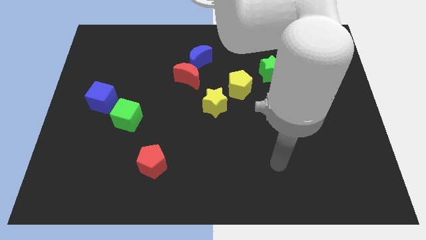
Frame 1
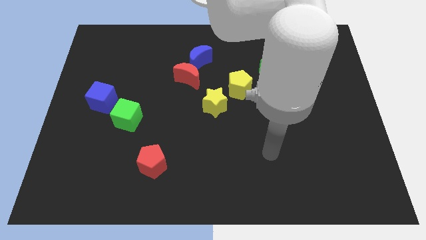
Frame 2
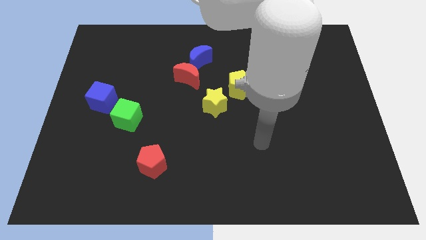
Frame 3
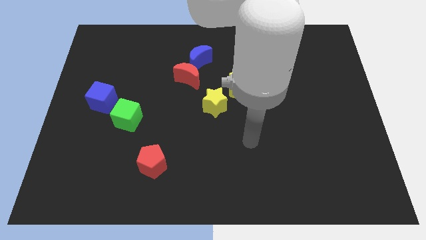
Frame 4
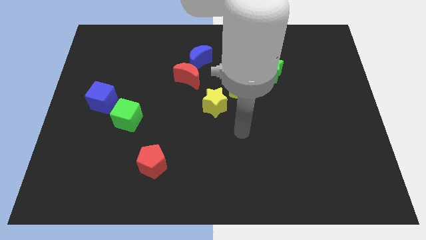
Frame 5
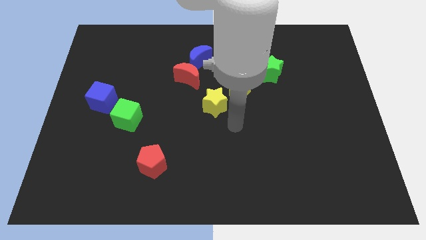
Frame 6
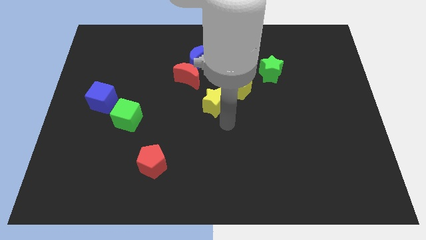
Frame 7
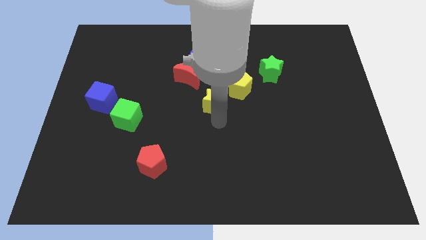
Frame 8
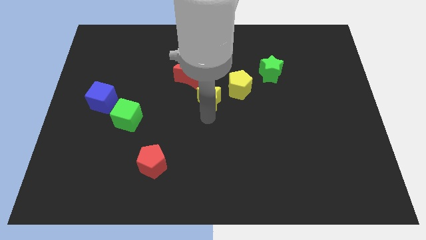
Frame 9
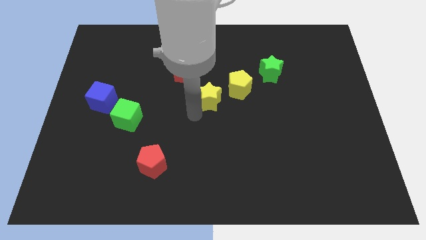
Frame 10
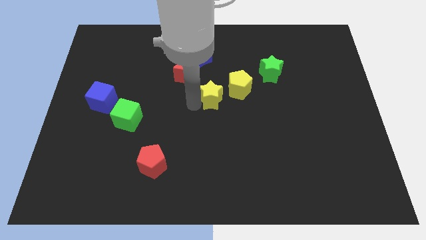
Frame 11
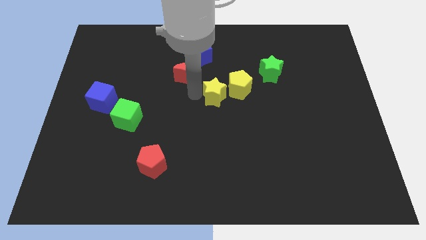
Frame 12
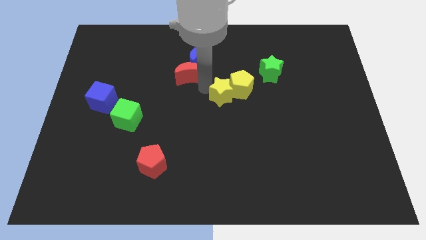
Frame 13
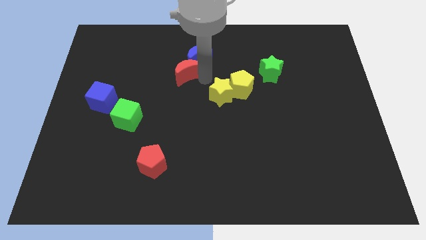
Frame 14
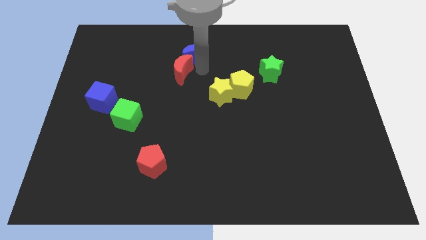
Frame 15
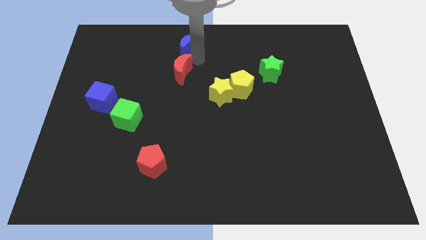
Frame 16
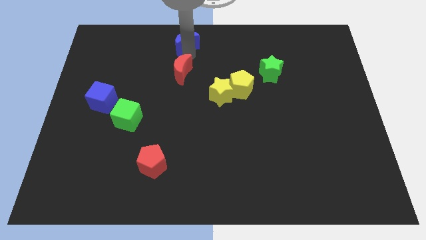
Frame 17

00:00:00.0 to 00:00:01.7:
move the red moon away from the blue moon

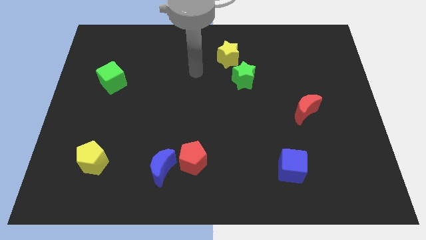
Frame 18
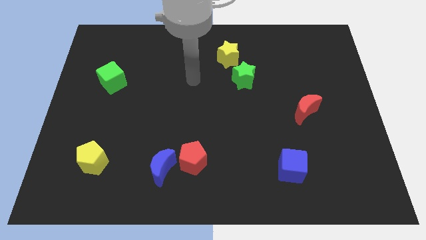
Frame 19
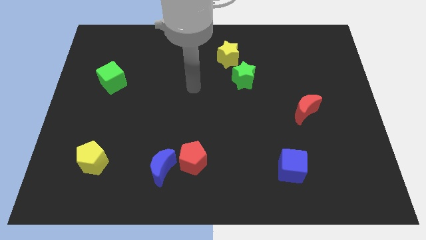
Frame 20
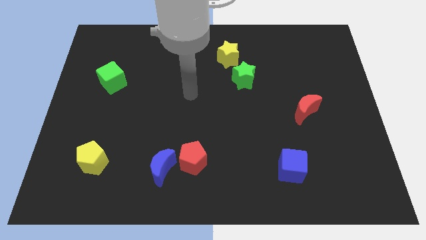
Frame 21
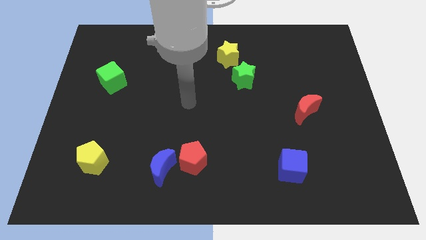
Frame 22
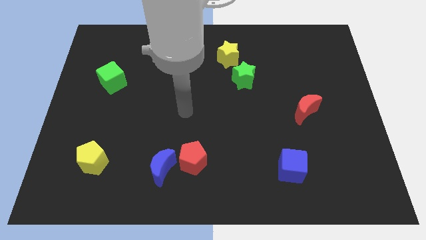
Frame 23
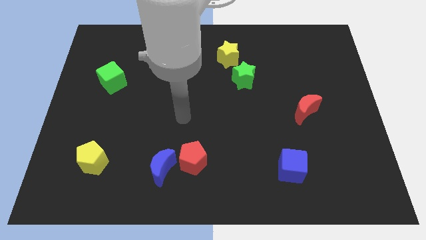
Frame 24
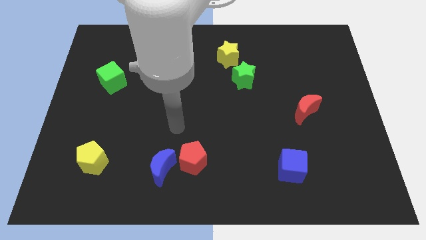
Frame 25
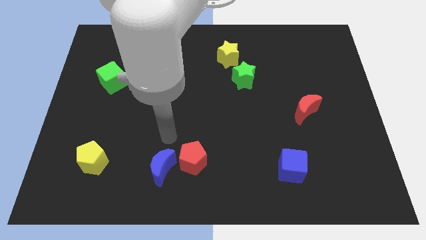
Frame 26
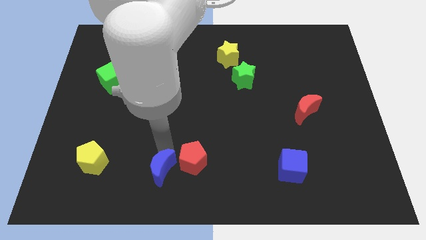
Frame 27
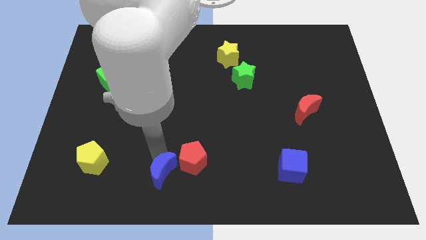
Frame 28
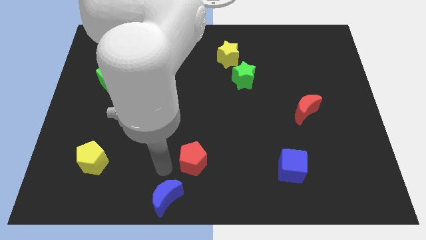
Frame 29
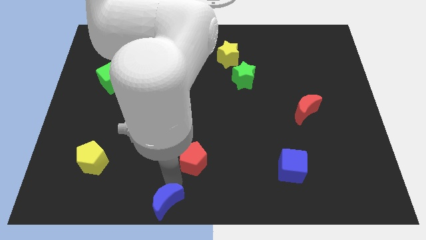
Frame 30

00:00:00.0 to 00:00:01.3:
pull the red pentagon apart from the blue moon

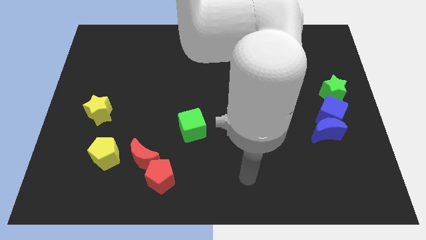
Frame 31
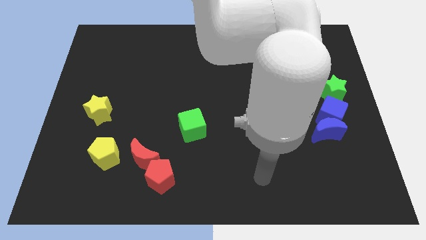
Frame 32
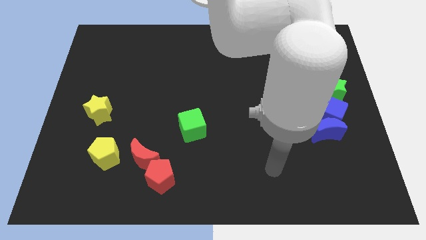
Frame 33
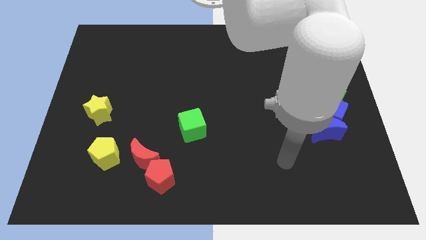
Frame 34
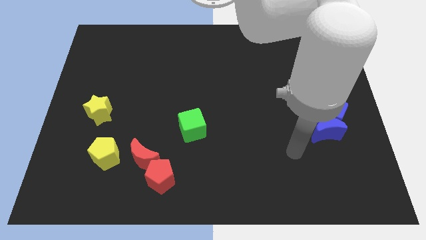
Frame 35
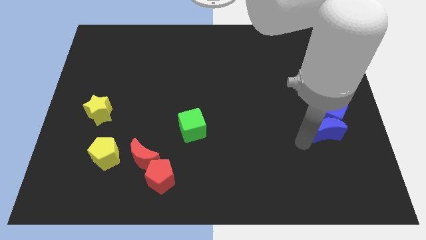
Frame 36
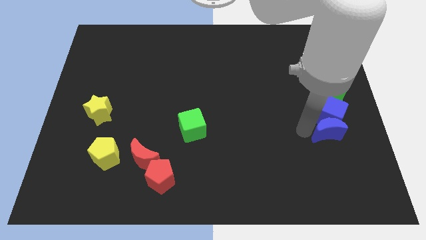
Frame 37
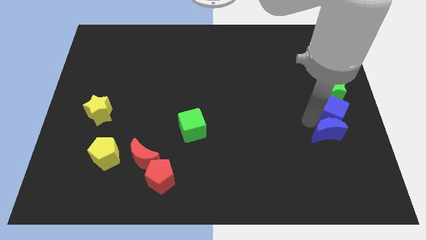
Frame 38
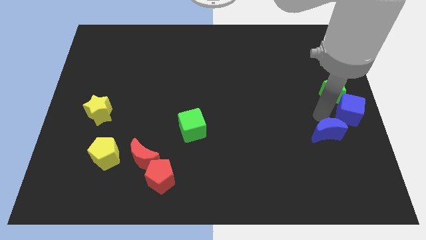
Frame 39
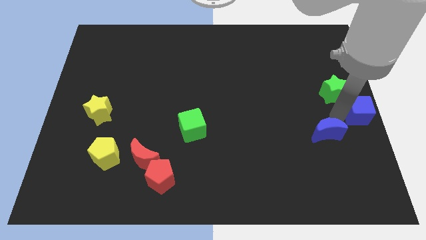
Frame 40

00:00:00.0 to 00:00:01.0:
separate the blue moon from the blue cube

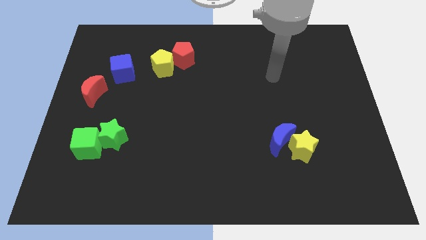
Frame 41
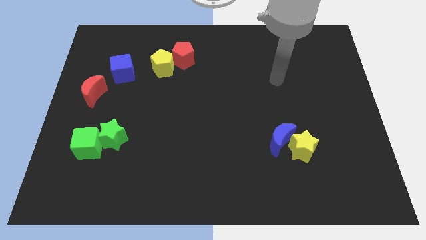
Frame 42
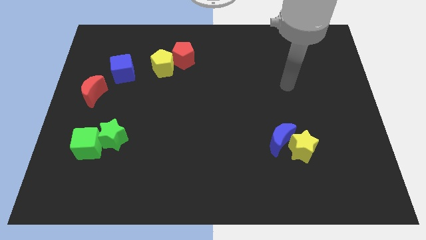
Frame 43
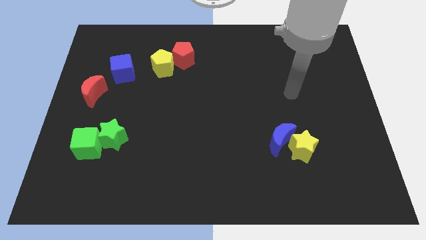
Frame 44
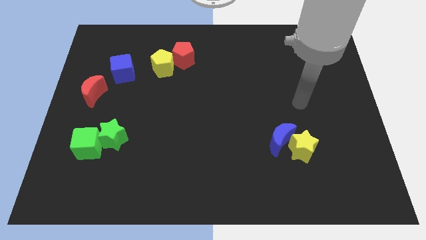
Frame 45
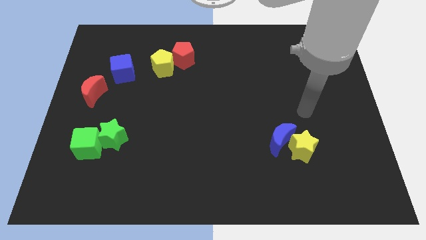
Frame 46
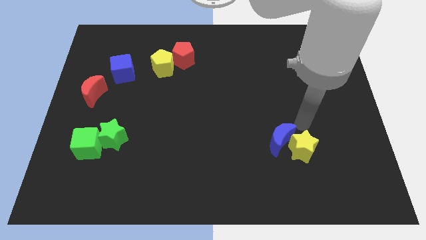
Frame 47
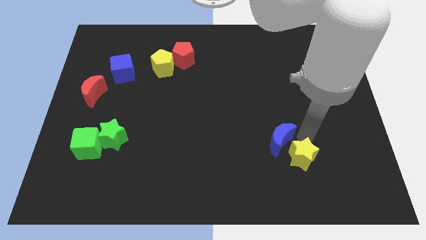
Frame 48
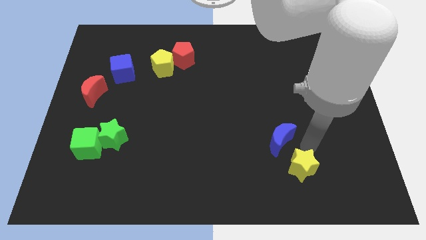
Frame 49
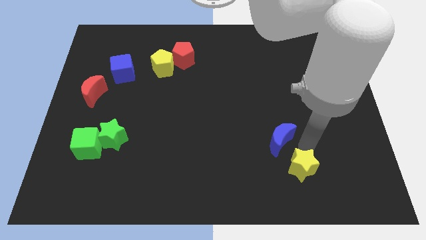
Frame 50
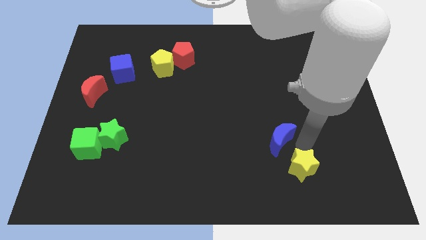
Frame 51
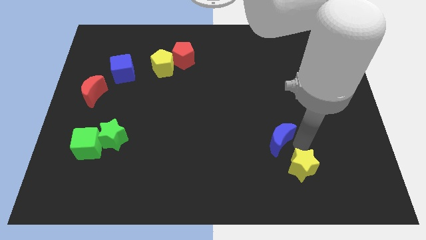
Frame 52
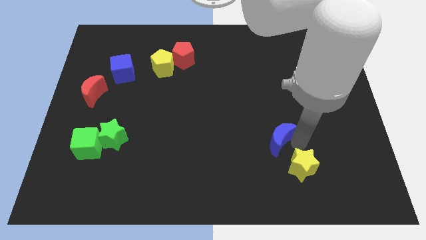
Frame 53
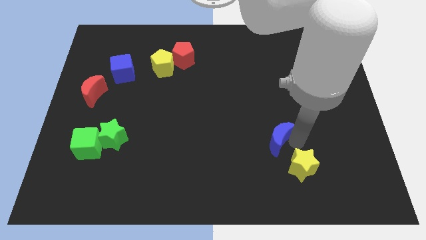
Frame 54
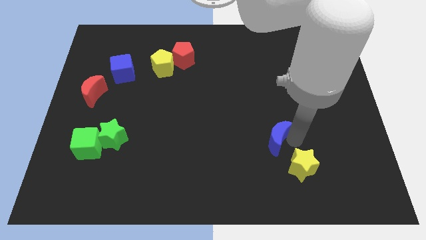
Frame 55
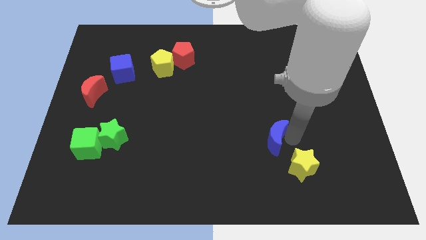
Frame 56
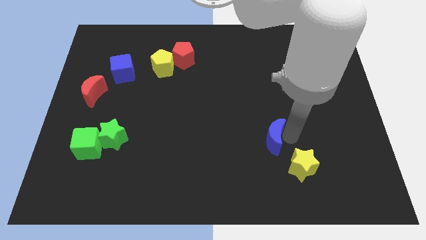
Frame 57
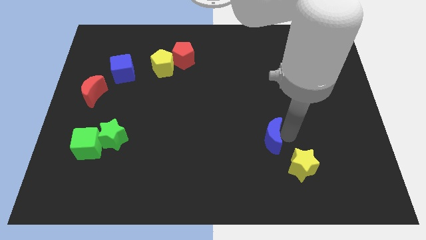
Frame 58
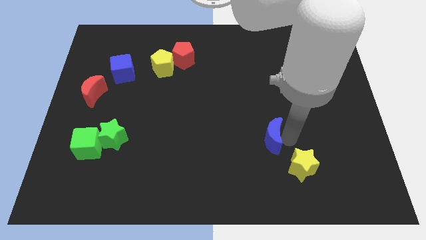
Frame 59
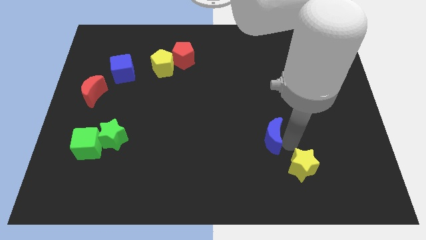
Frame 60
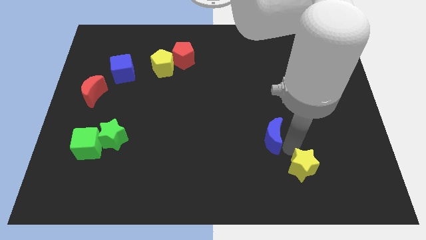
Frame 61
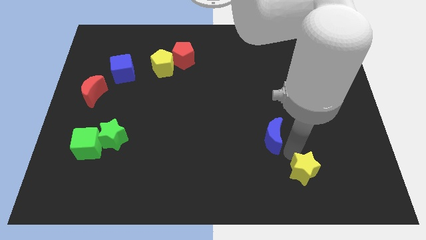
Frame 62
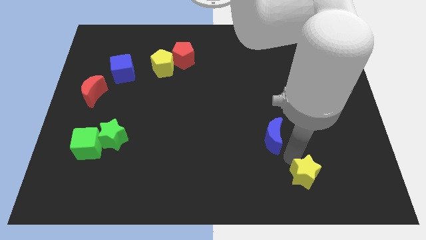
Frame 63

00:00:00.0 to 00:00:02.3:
move the blue moon away from the yellow star

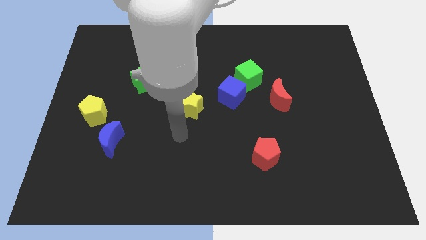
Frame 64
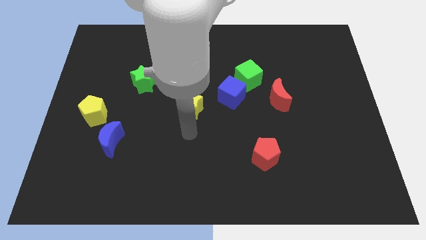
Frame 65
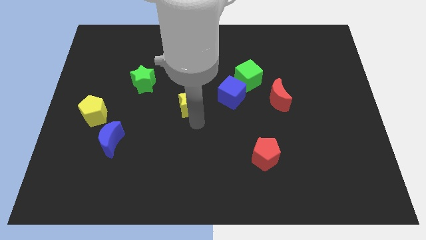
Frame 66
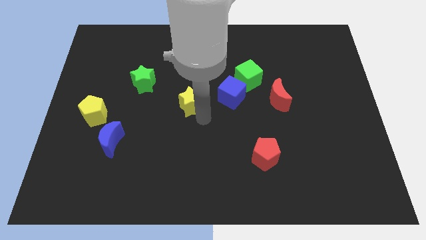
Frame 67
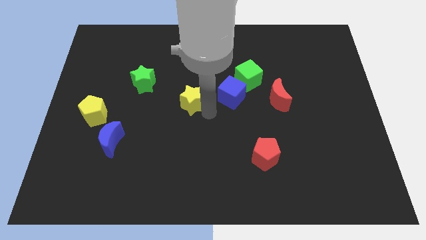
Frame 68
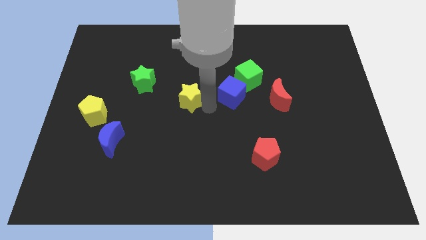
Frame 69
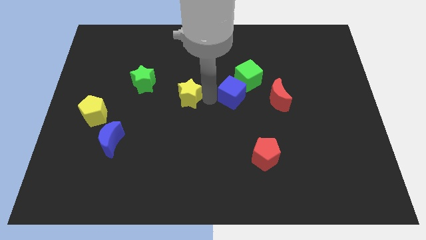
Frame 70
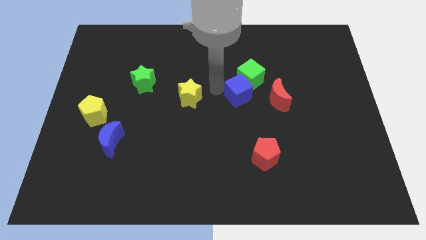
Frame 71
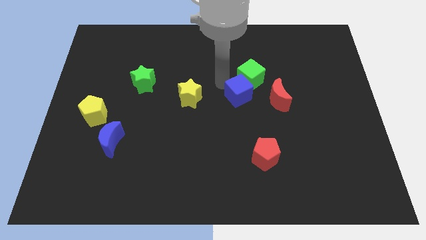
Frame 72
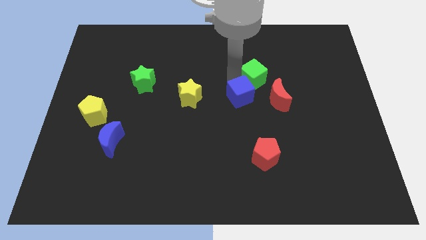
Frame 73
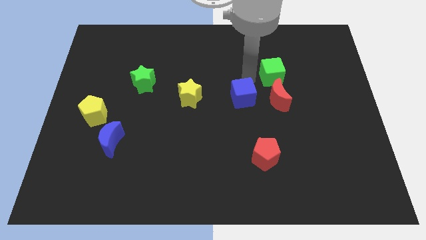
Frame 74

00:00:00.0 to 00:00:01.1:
move the blue cube away from the green cube

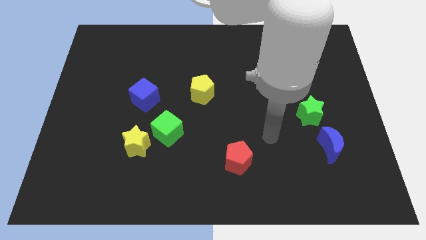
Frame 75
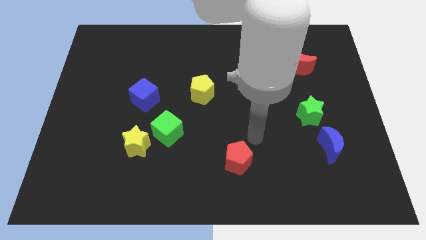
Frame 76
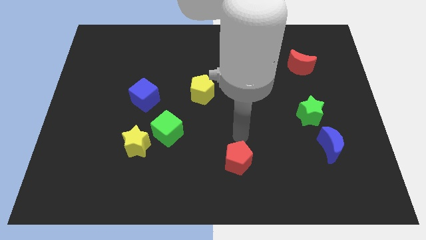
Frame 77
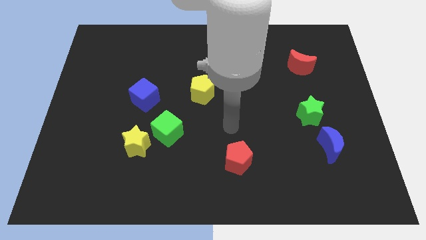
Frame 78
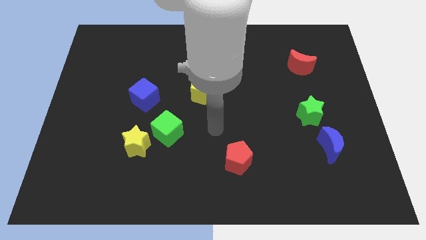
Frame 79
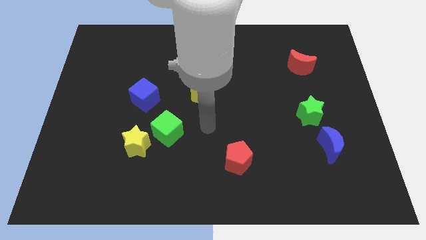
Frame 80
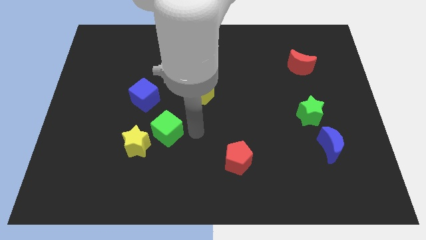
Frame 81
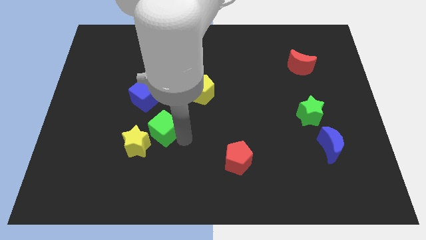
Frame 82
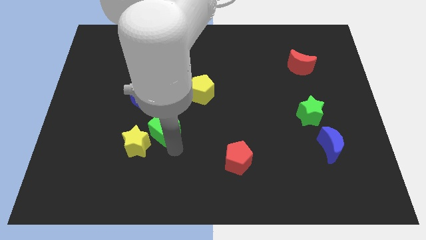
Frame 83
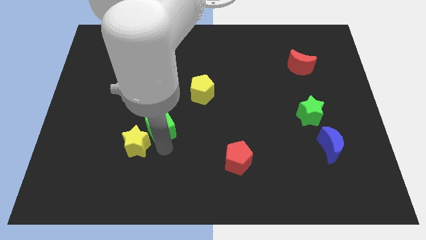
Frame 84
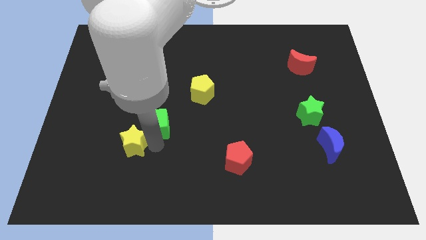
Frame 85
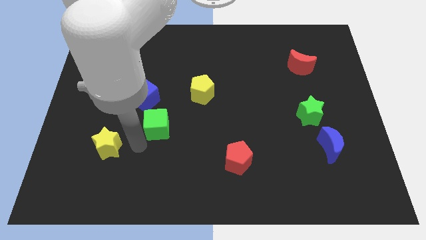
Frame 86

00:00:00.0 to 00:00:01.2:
separate the green cube from the yellow star

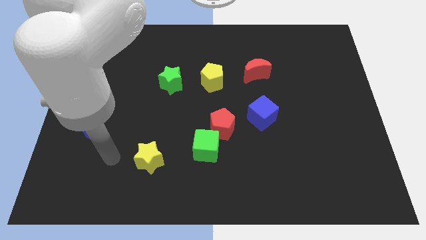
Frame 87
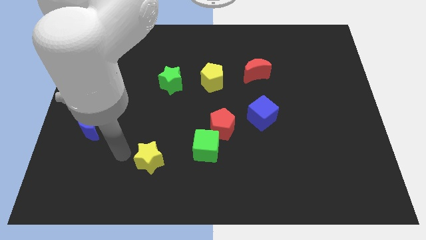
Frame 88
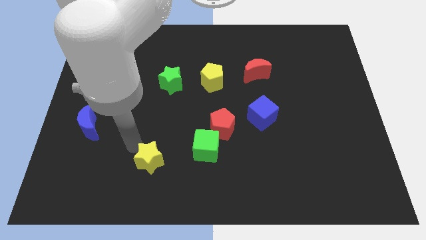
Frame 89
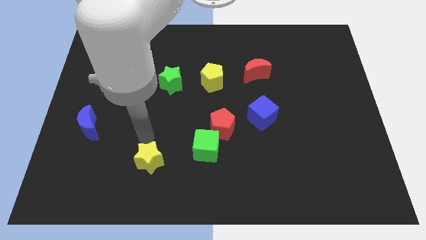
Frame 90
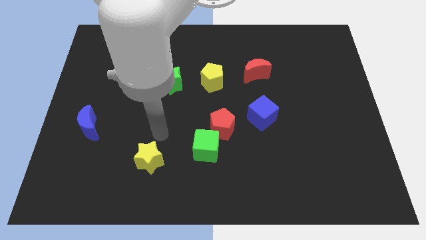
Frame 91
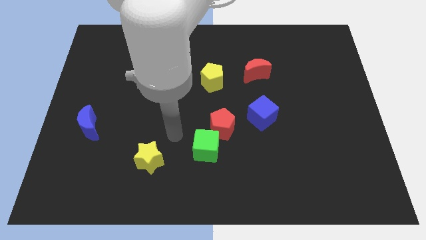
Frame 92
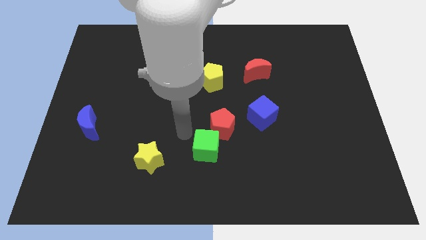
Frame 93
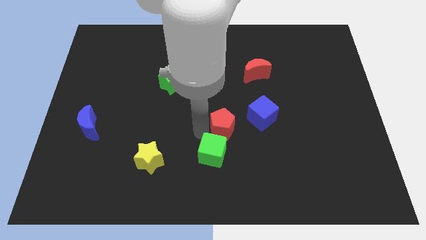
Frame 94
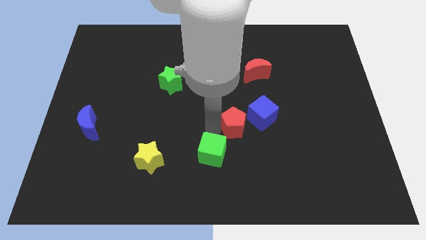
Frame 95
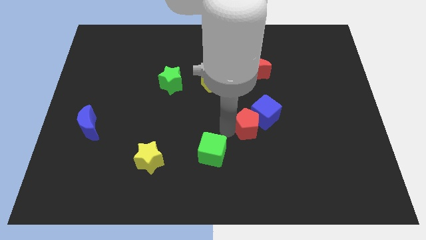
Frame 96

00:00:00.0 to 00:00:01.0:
pull the green cube apart from the red pentagon
